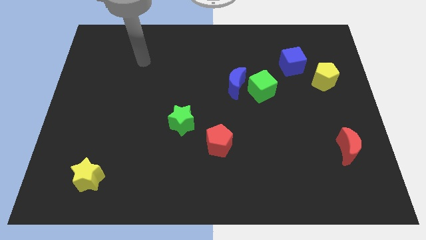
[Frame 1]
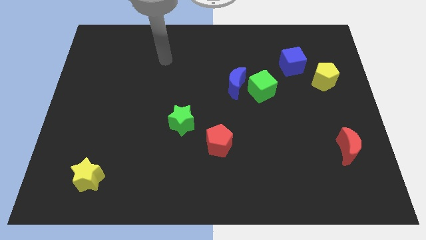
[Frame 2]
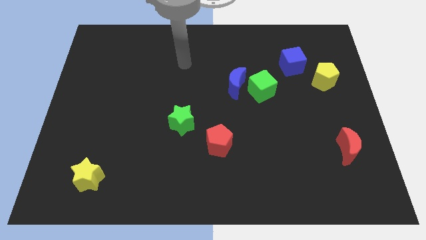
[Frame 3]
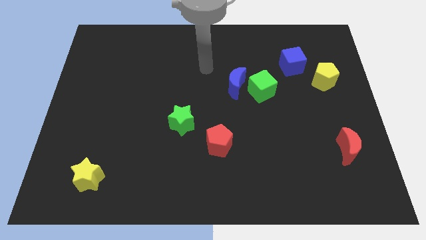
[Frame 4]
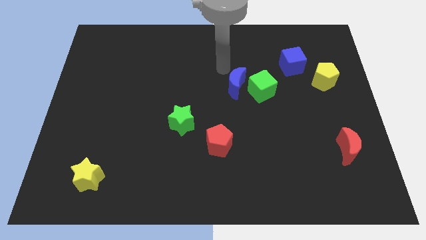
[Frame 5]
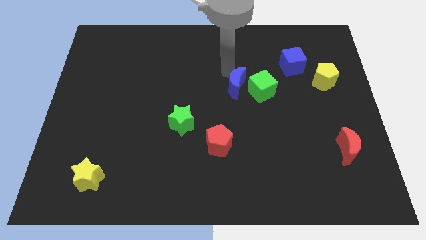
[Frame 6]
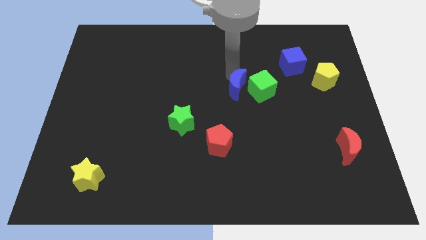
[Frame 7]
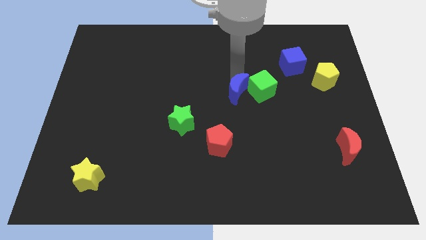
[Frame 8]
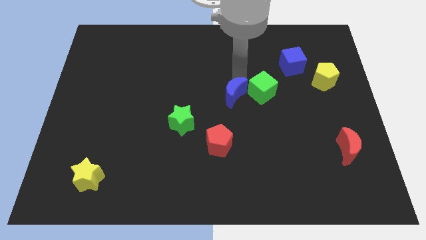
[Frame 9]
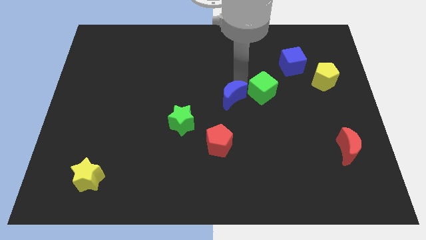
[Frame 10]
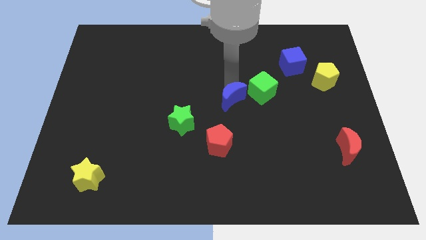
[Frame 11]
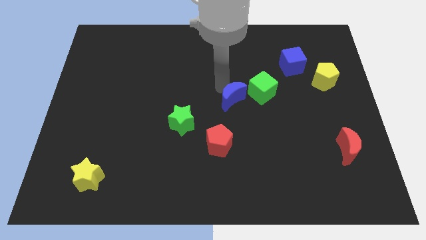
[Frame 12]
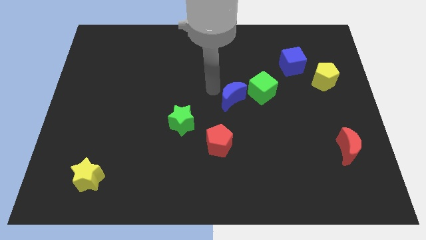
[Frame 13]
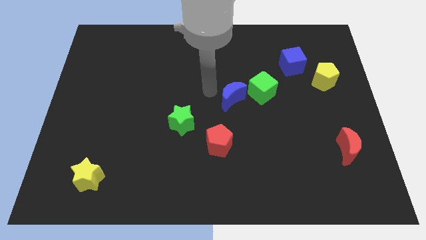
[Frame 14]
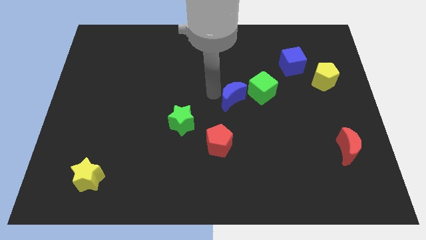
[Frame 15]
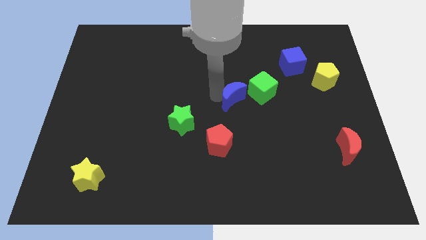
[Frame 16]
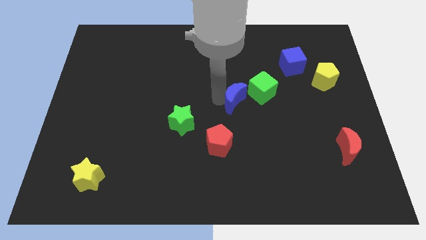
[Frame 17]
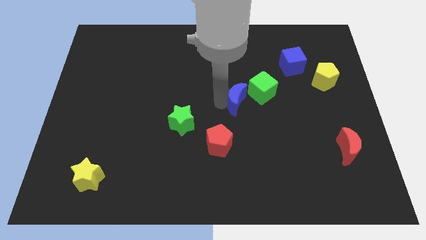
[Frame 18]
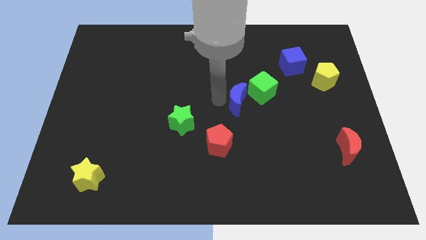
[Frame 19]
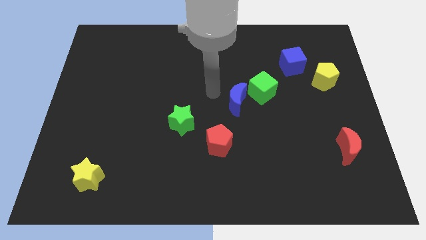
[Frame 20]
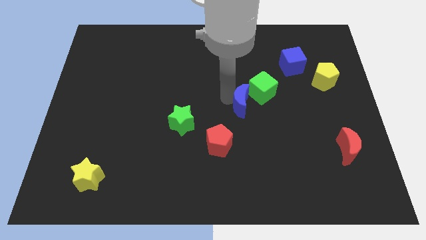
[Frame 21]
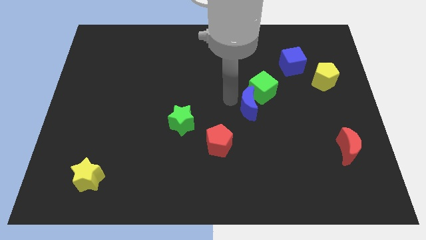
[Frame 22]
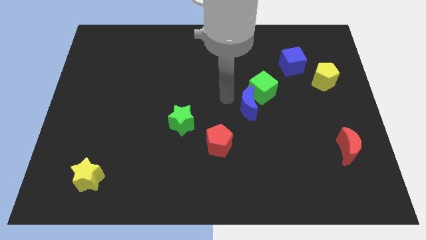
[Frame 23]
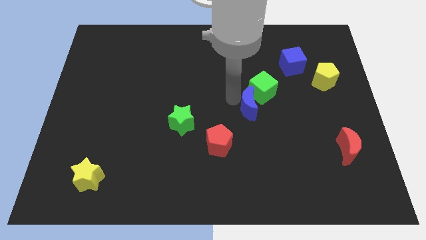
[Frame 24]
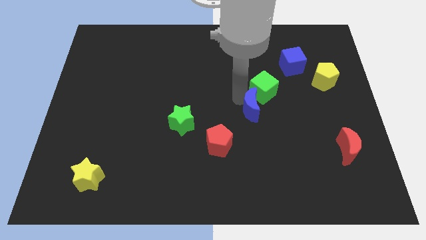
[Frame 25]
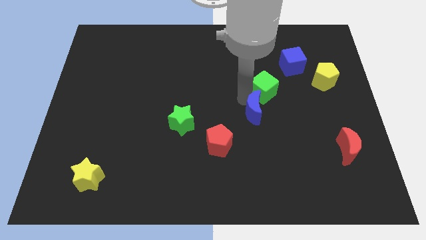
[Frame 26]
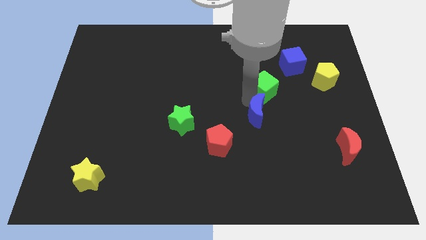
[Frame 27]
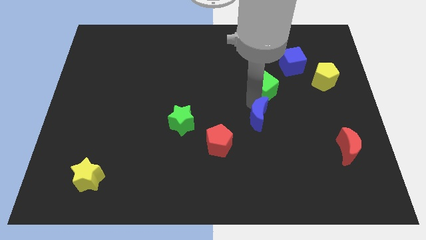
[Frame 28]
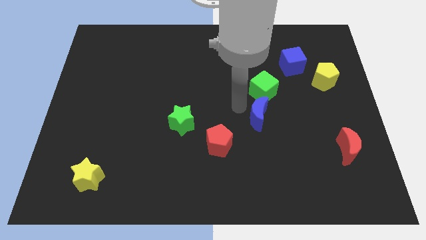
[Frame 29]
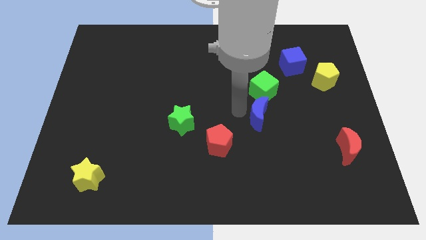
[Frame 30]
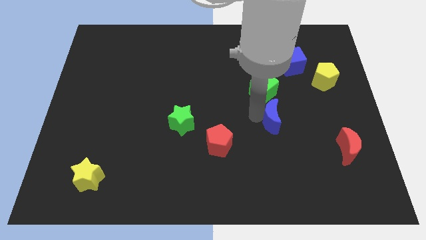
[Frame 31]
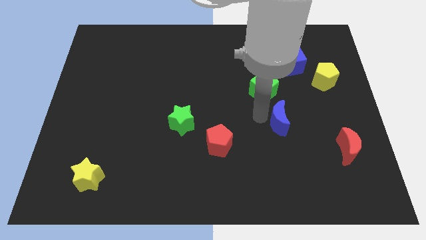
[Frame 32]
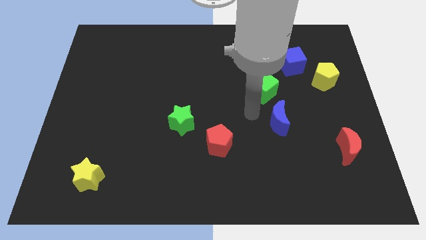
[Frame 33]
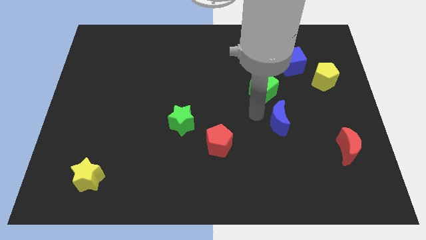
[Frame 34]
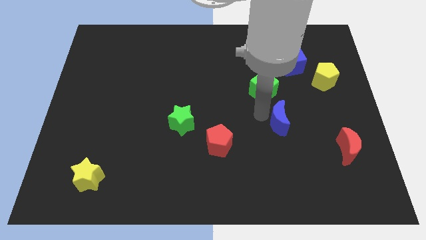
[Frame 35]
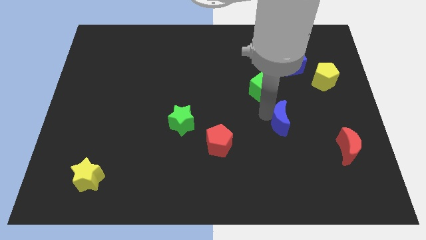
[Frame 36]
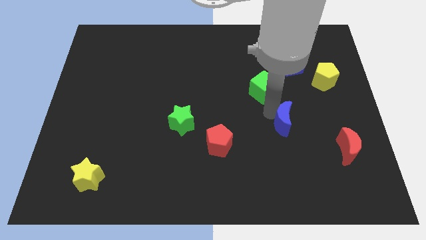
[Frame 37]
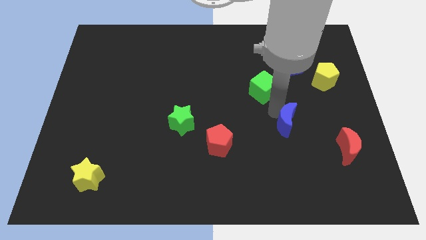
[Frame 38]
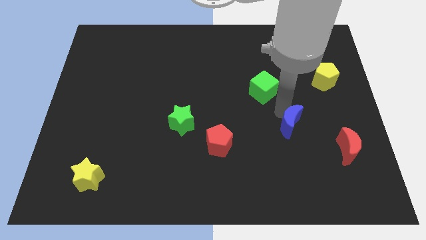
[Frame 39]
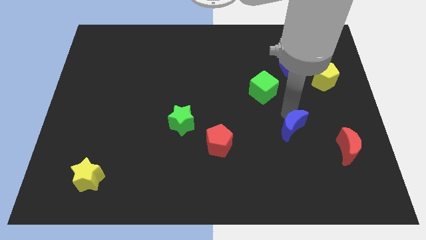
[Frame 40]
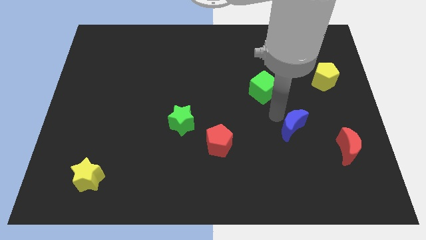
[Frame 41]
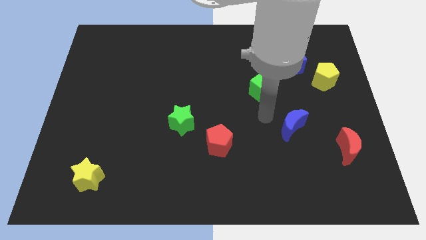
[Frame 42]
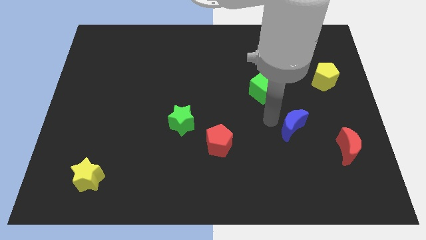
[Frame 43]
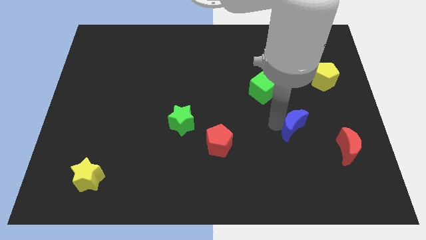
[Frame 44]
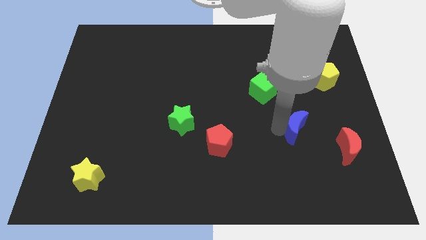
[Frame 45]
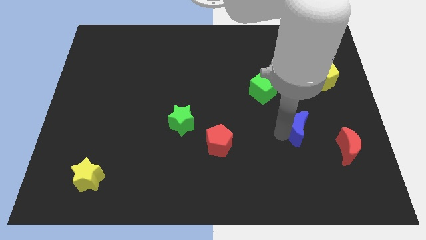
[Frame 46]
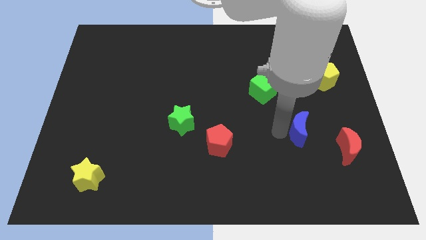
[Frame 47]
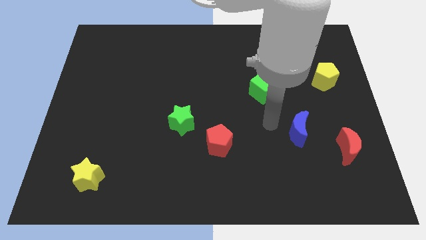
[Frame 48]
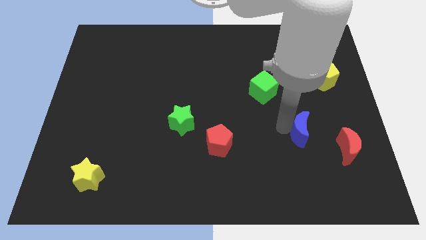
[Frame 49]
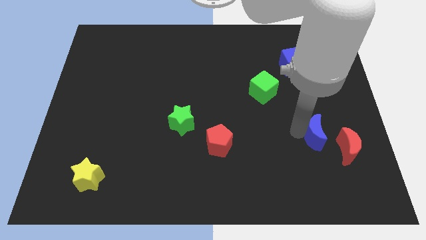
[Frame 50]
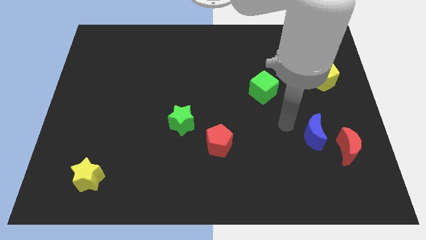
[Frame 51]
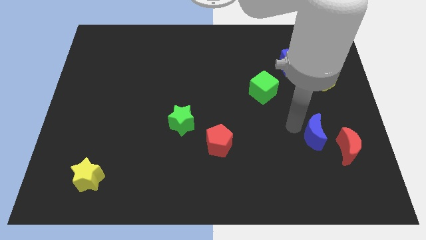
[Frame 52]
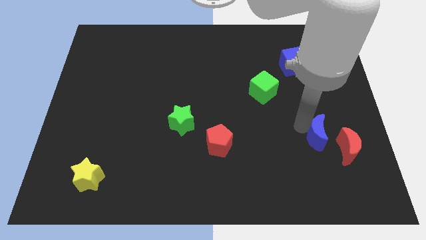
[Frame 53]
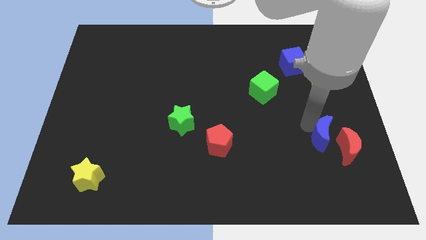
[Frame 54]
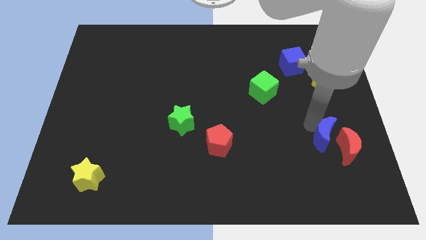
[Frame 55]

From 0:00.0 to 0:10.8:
move the blue moon next to the red moon

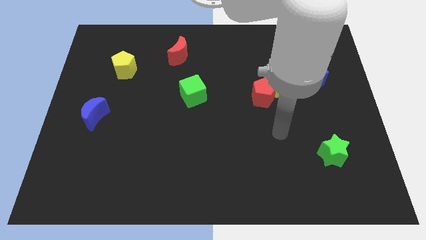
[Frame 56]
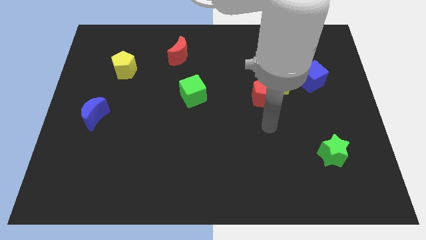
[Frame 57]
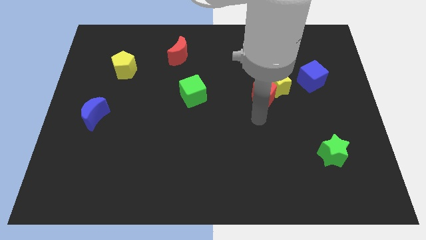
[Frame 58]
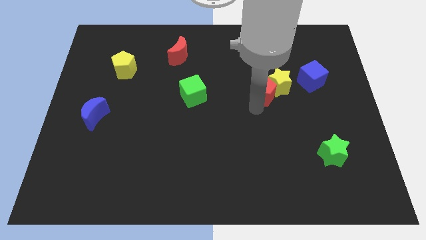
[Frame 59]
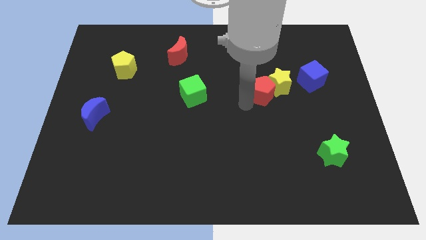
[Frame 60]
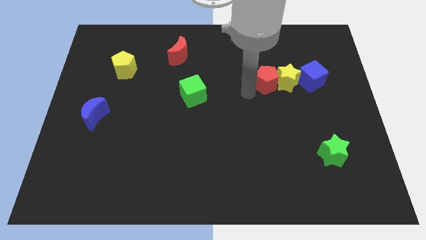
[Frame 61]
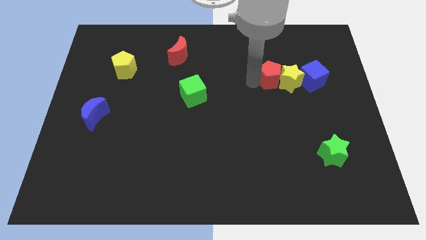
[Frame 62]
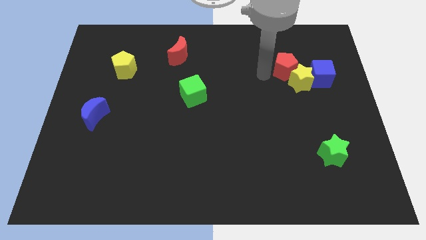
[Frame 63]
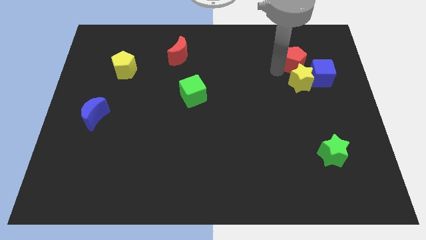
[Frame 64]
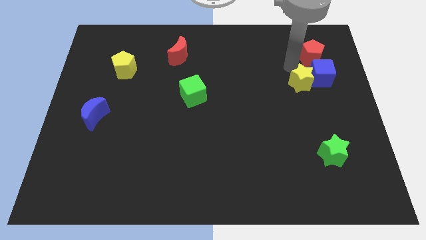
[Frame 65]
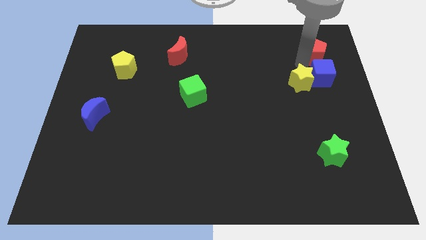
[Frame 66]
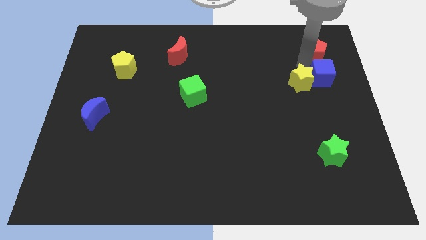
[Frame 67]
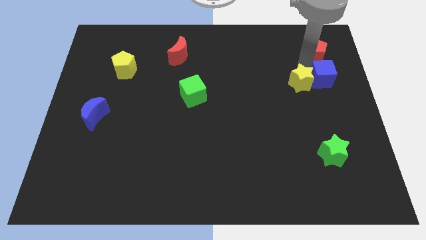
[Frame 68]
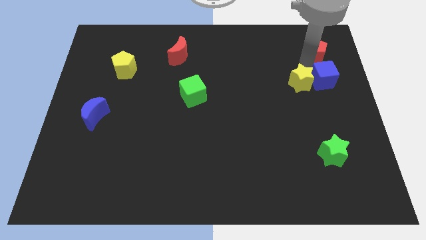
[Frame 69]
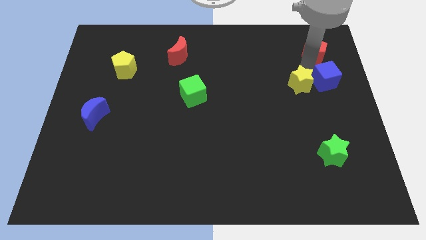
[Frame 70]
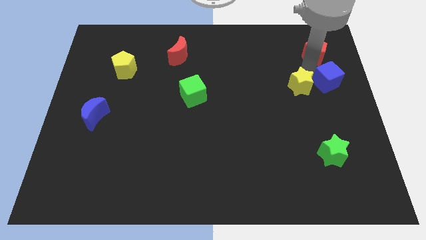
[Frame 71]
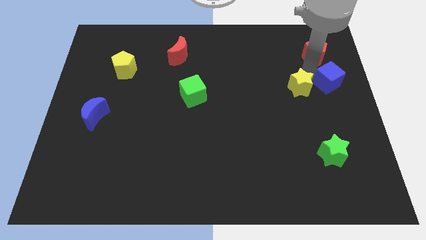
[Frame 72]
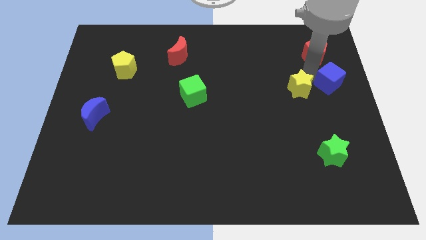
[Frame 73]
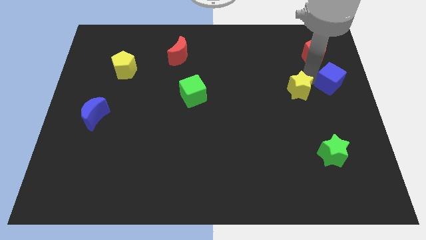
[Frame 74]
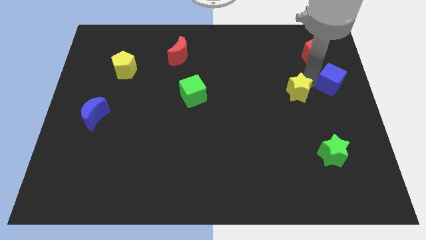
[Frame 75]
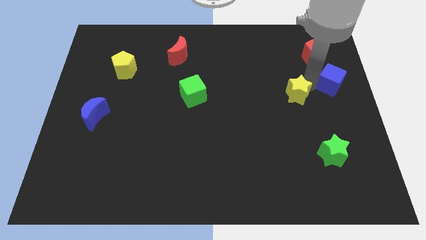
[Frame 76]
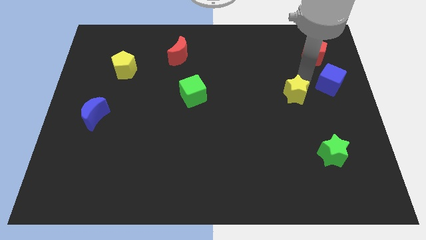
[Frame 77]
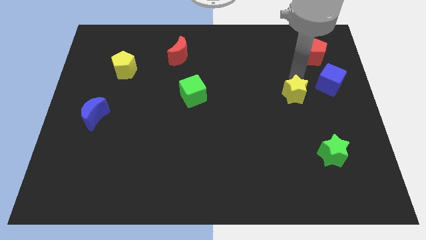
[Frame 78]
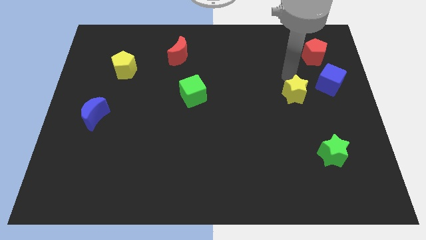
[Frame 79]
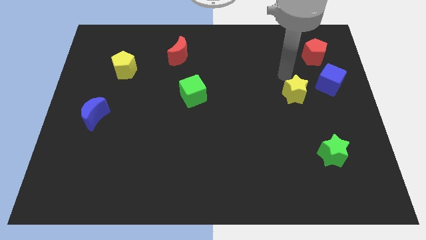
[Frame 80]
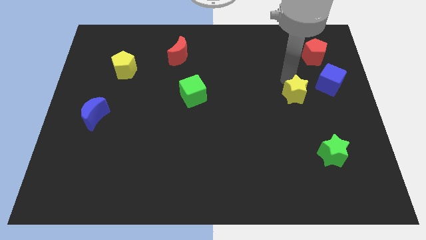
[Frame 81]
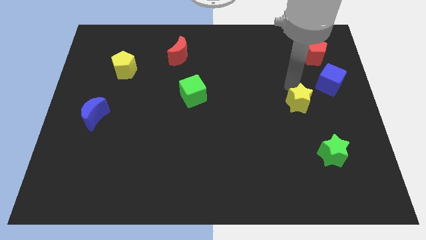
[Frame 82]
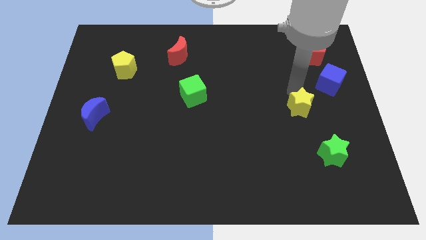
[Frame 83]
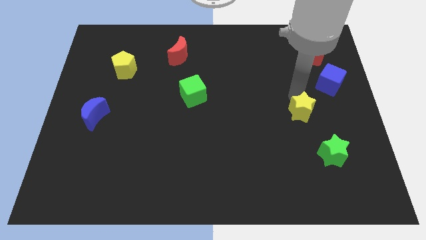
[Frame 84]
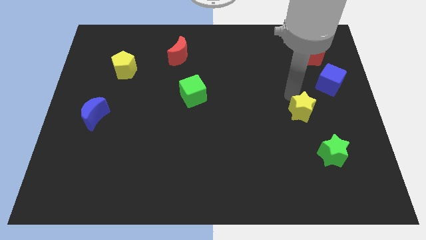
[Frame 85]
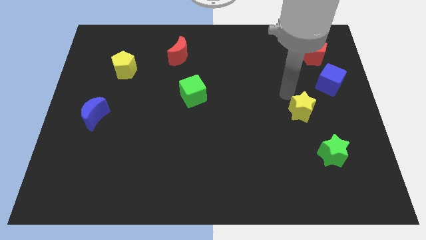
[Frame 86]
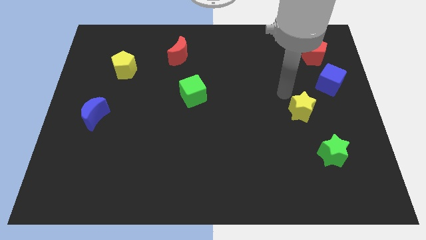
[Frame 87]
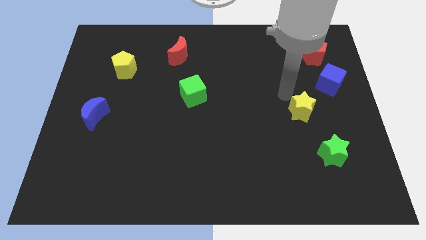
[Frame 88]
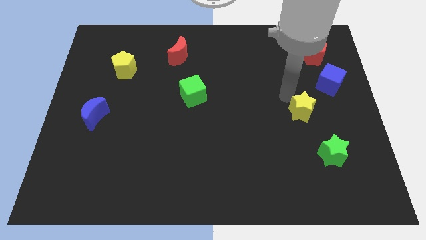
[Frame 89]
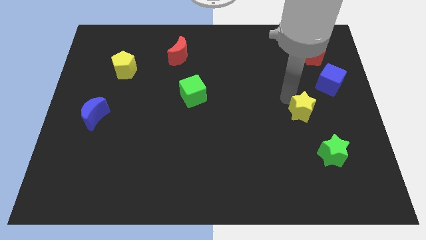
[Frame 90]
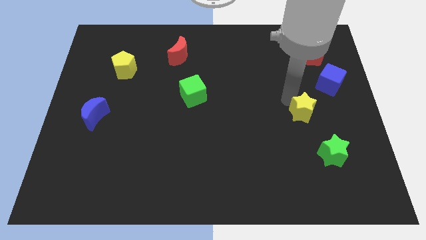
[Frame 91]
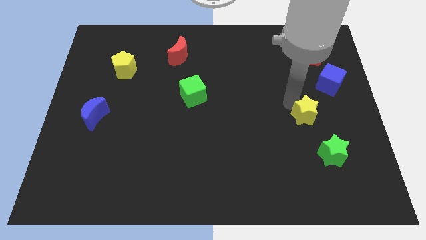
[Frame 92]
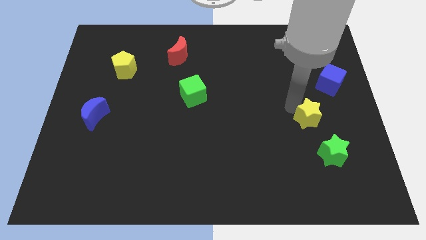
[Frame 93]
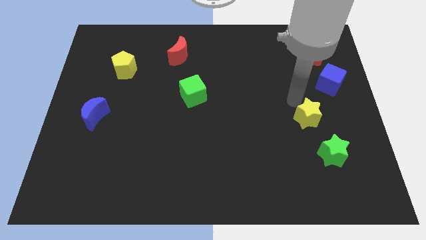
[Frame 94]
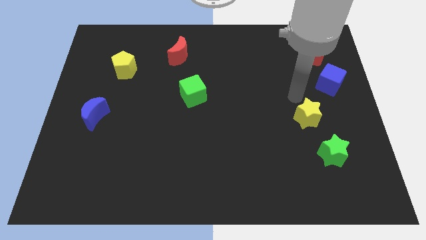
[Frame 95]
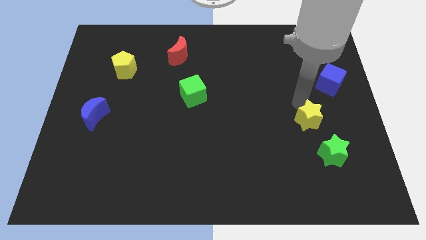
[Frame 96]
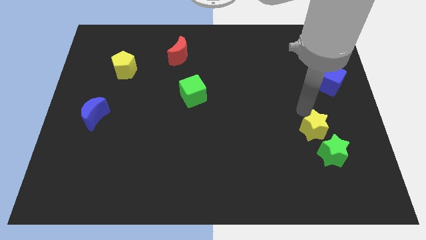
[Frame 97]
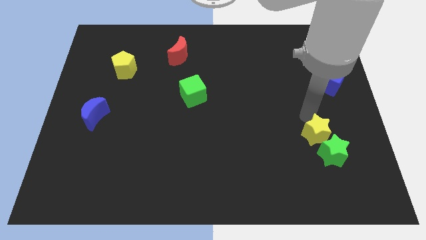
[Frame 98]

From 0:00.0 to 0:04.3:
move the yellow star close to the green star
